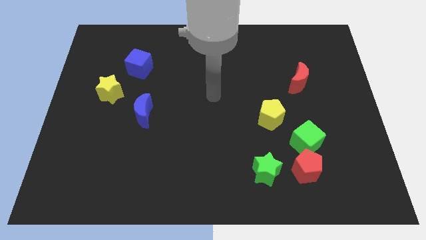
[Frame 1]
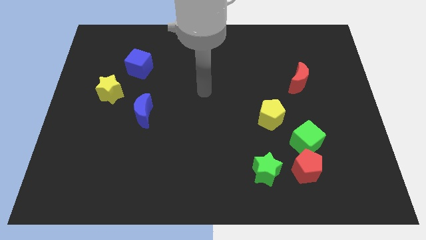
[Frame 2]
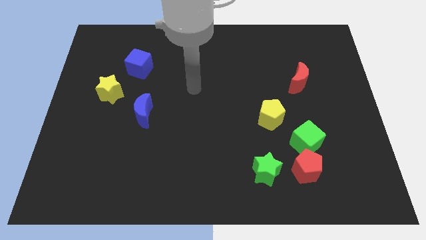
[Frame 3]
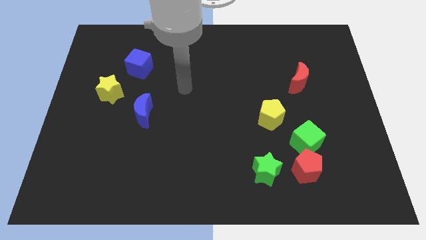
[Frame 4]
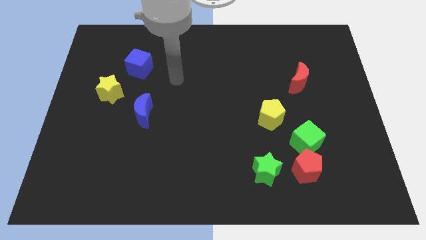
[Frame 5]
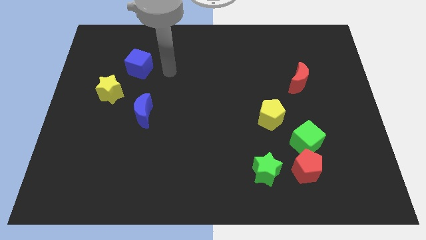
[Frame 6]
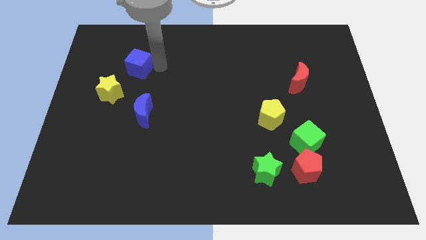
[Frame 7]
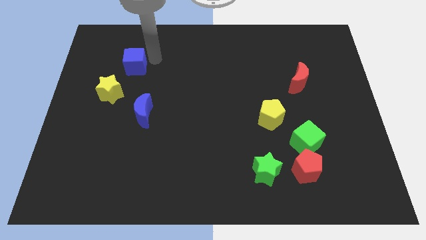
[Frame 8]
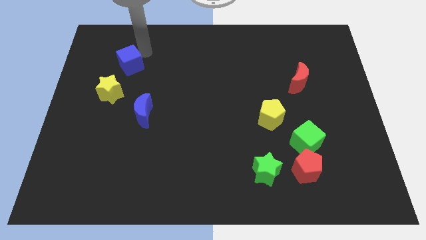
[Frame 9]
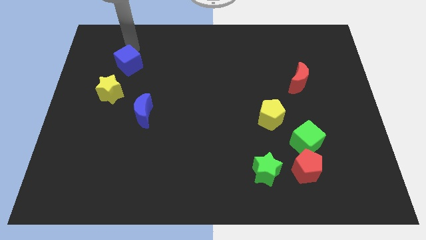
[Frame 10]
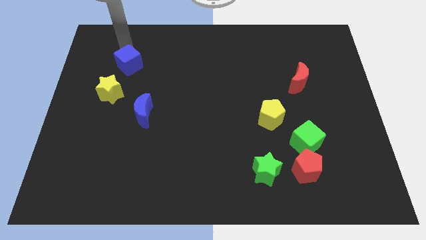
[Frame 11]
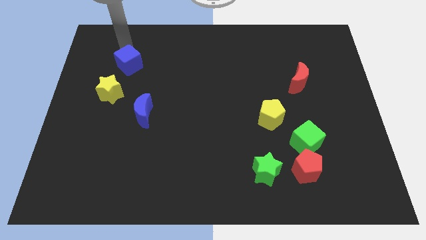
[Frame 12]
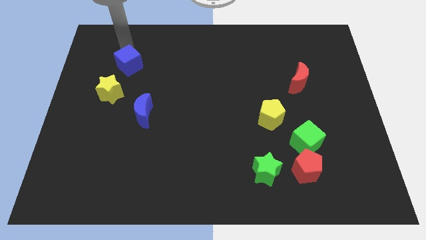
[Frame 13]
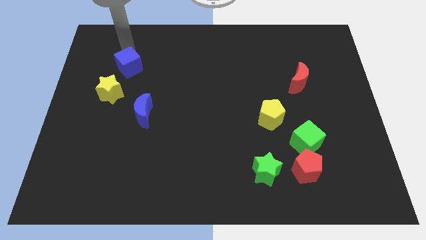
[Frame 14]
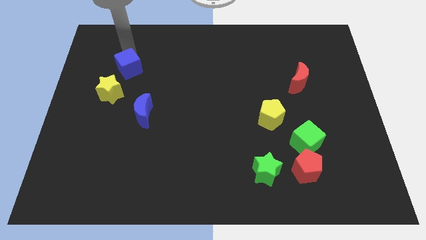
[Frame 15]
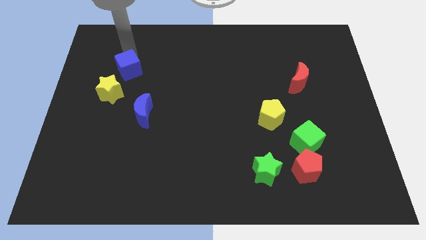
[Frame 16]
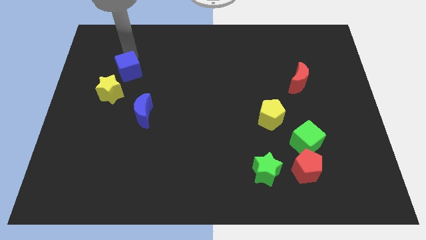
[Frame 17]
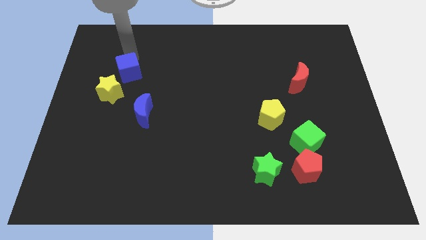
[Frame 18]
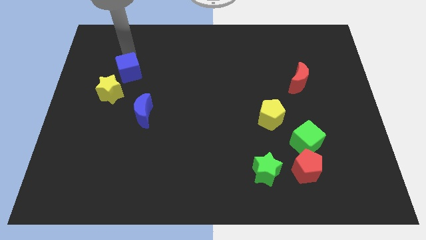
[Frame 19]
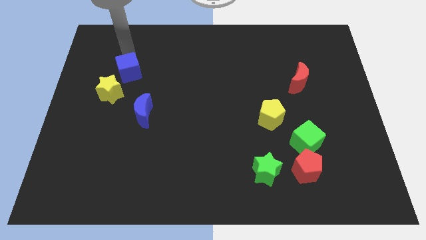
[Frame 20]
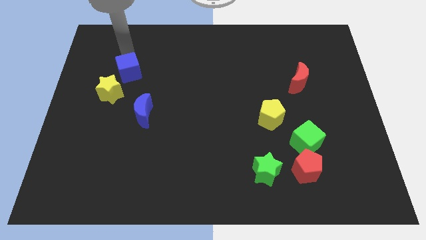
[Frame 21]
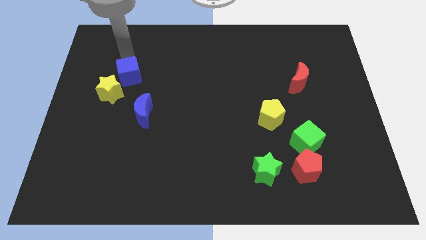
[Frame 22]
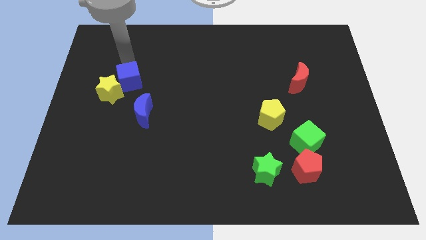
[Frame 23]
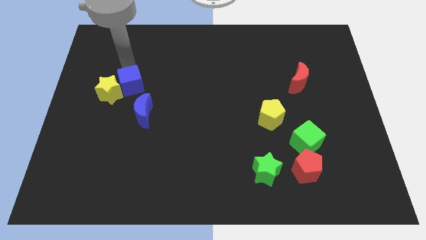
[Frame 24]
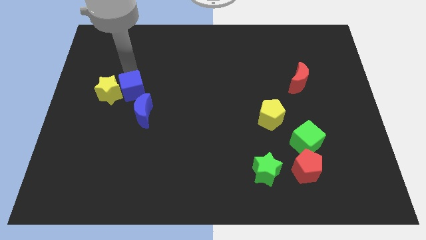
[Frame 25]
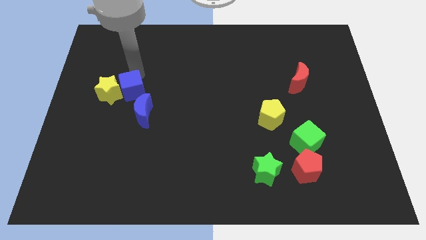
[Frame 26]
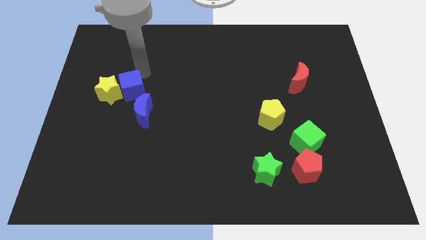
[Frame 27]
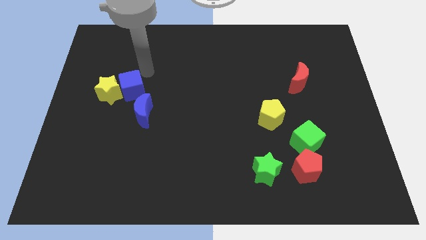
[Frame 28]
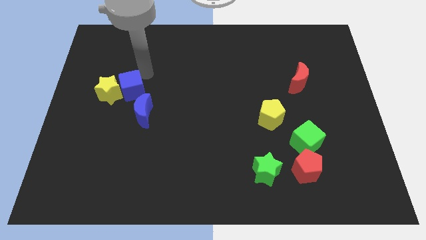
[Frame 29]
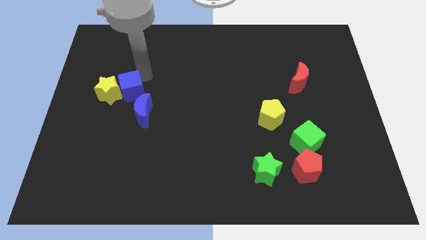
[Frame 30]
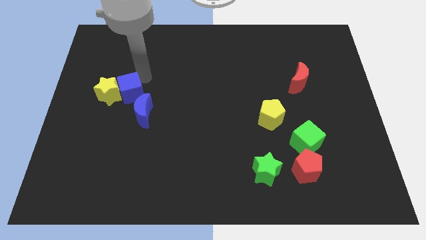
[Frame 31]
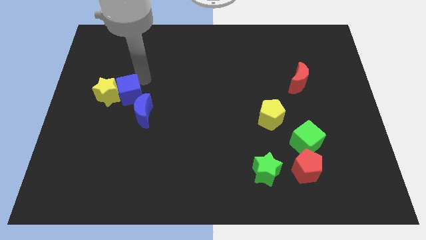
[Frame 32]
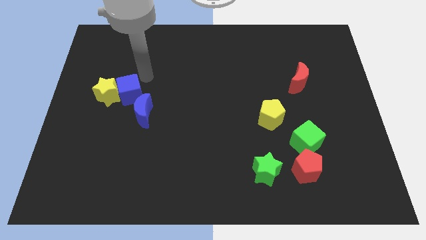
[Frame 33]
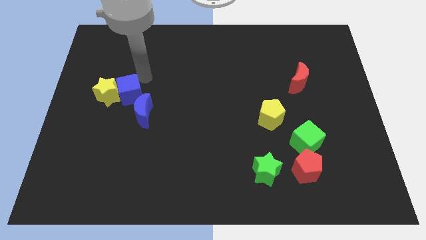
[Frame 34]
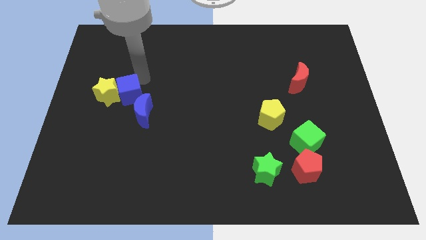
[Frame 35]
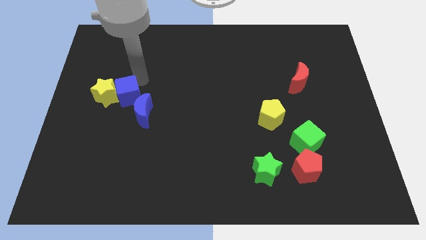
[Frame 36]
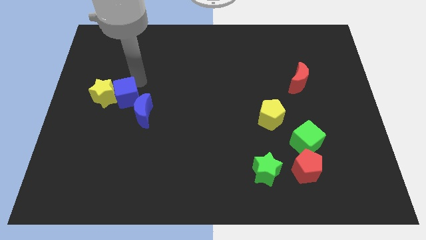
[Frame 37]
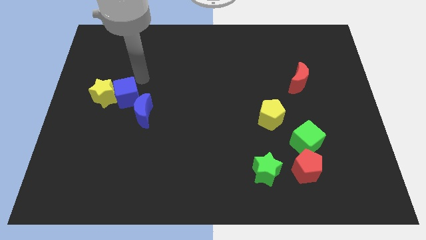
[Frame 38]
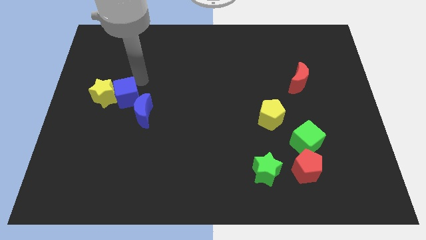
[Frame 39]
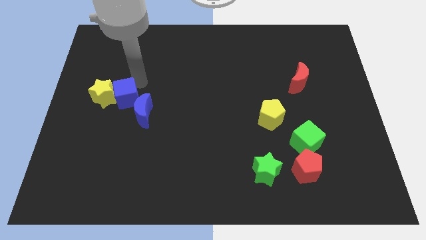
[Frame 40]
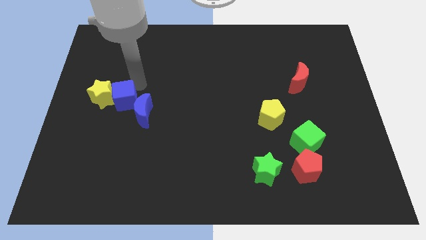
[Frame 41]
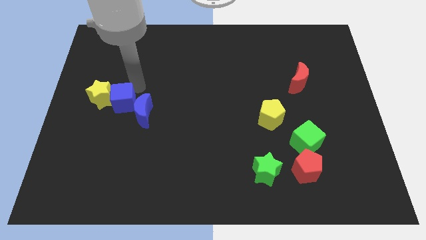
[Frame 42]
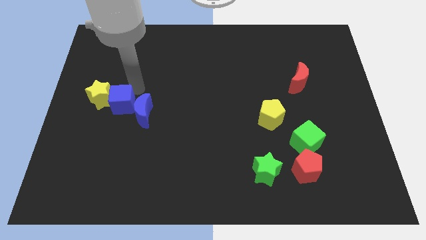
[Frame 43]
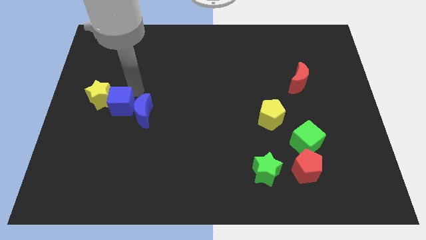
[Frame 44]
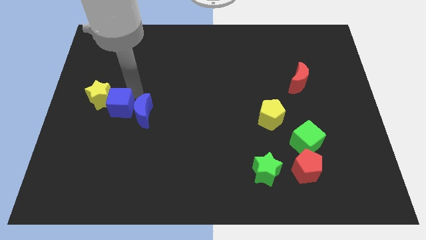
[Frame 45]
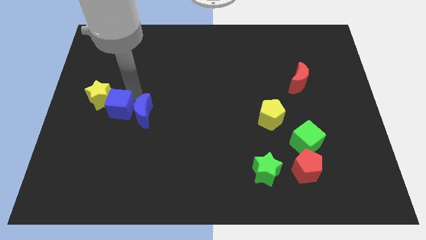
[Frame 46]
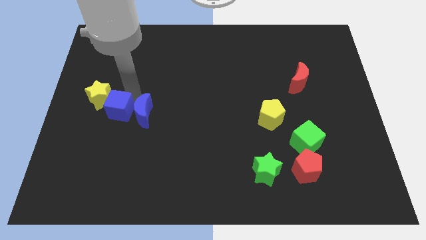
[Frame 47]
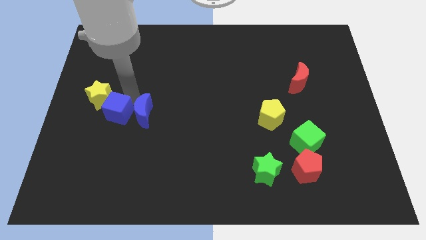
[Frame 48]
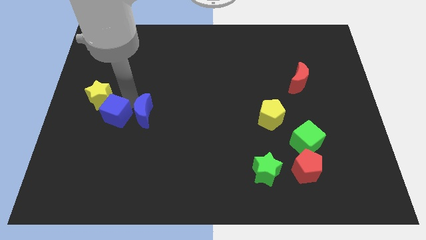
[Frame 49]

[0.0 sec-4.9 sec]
push the blue cube to the bottom of the yellow star

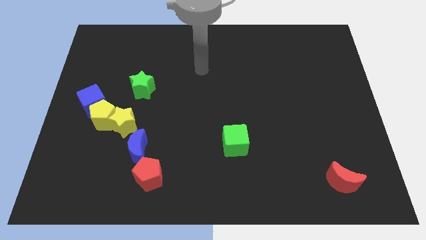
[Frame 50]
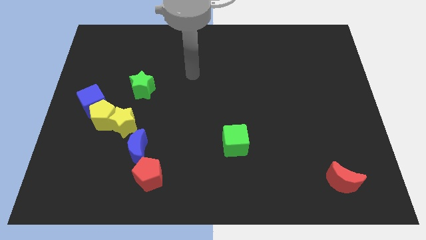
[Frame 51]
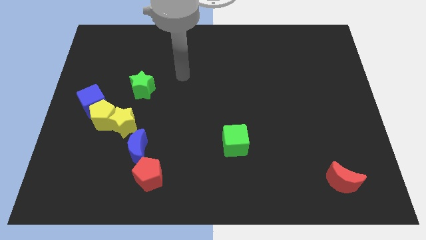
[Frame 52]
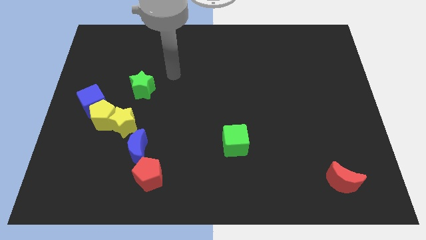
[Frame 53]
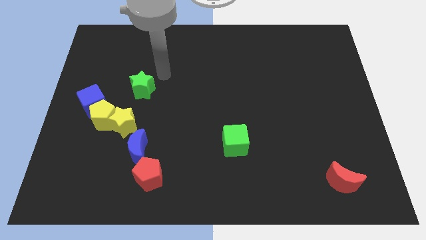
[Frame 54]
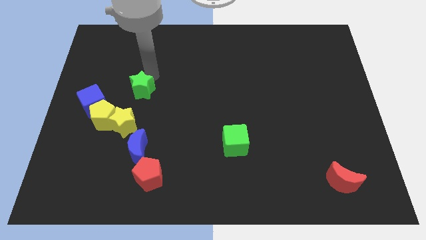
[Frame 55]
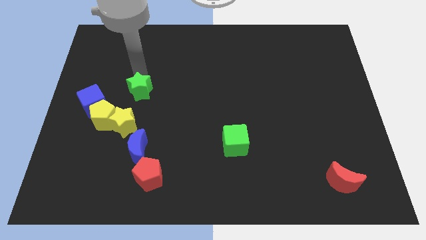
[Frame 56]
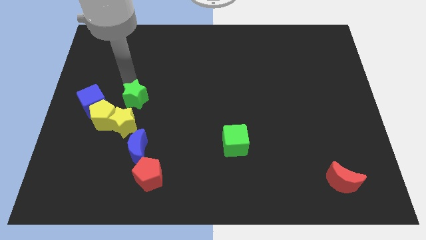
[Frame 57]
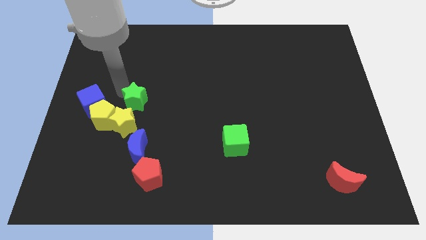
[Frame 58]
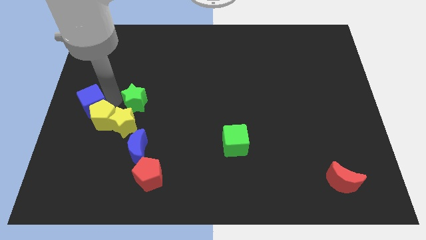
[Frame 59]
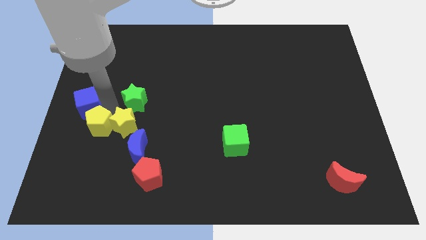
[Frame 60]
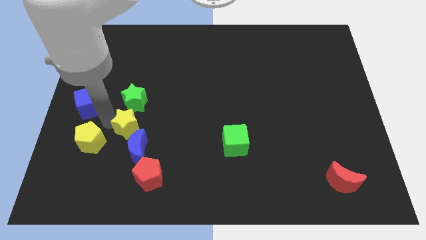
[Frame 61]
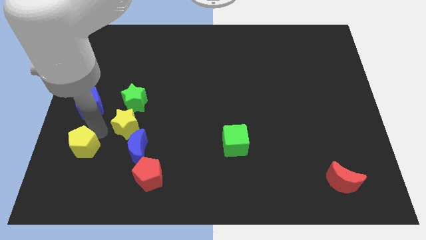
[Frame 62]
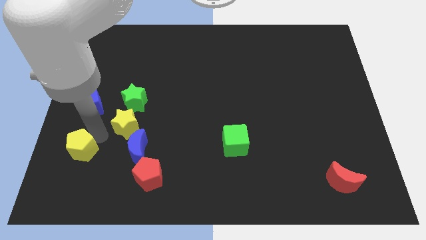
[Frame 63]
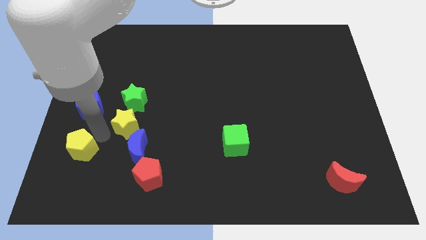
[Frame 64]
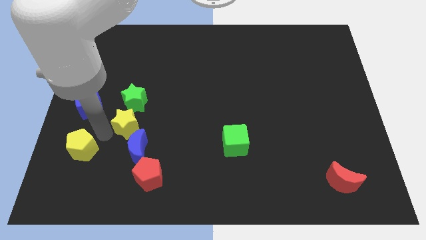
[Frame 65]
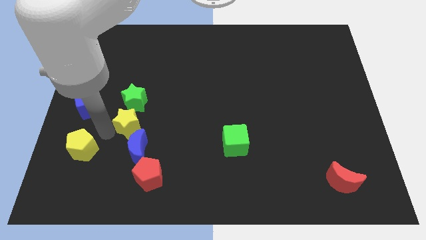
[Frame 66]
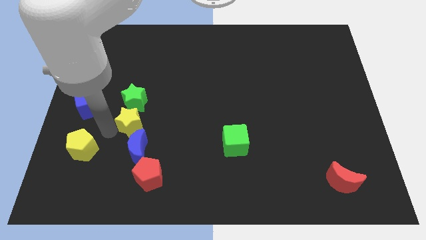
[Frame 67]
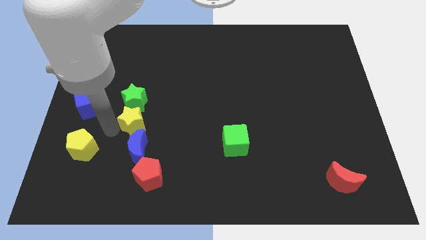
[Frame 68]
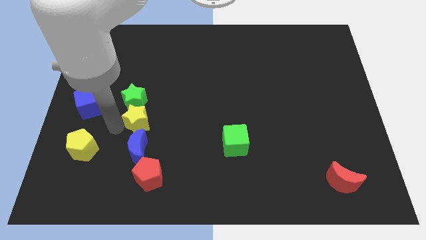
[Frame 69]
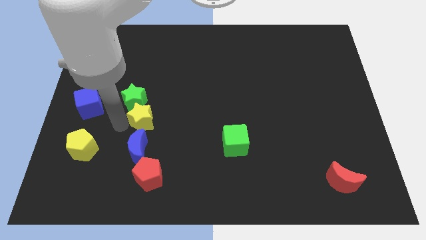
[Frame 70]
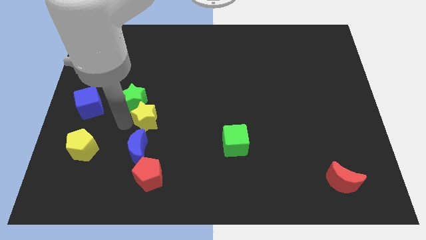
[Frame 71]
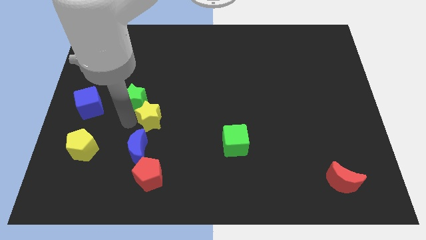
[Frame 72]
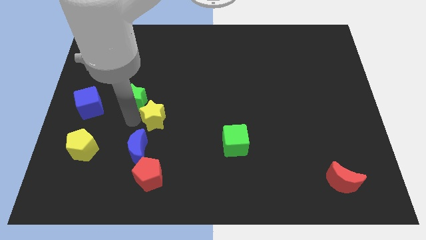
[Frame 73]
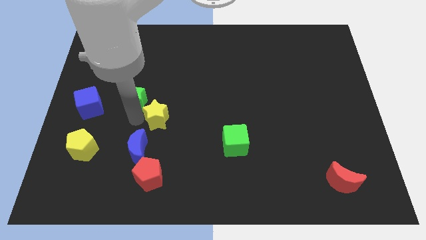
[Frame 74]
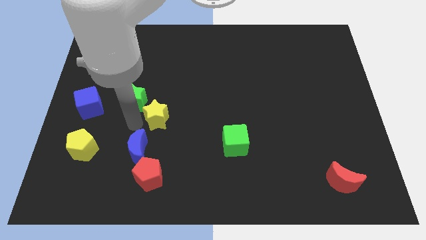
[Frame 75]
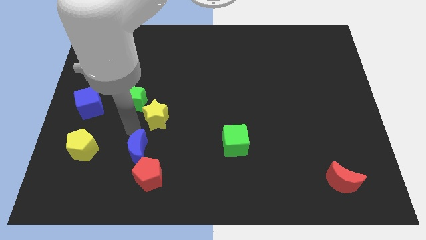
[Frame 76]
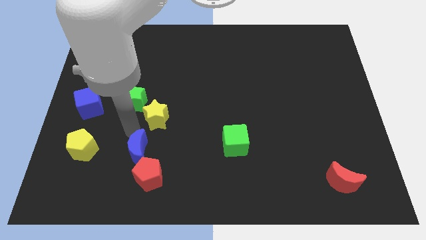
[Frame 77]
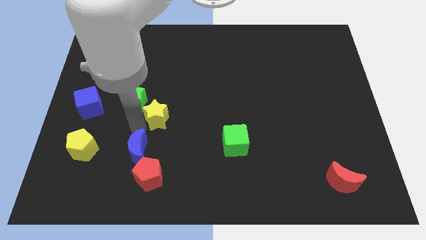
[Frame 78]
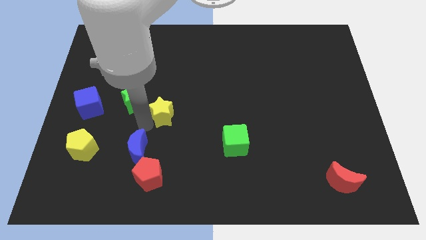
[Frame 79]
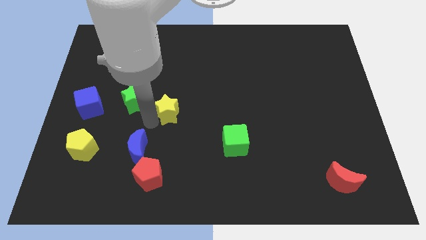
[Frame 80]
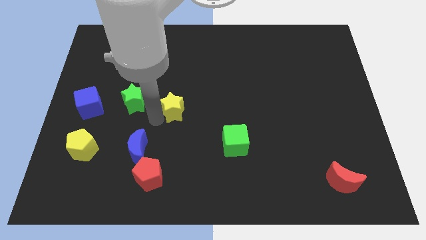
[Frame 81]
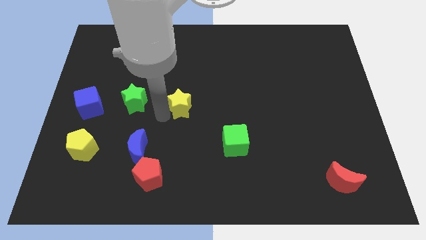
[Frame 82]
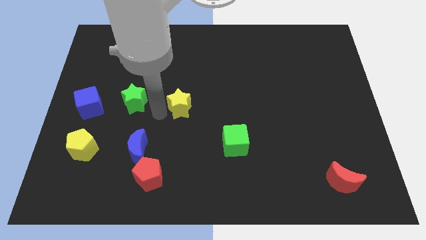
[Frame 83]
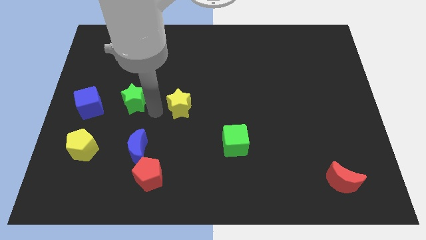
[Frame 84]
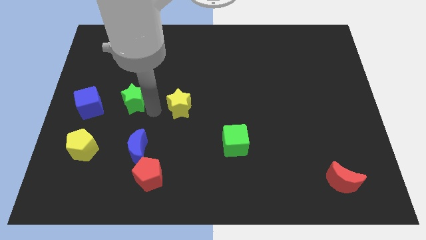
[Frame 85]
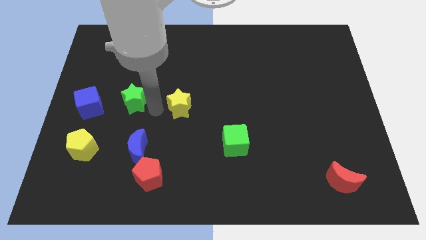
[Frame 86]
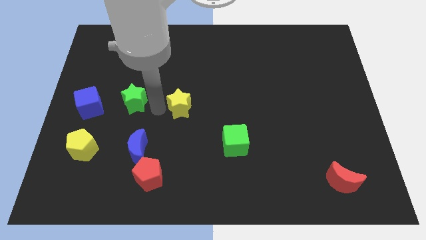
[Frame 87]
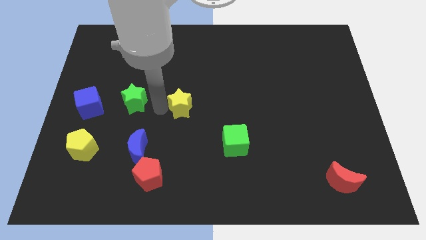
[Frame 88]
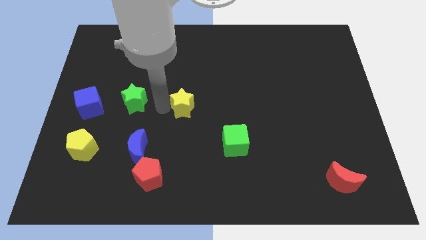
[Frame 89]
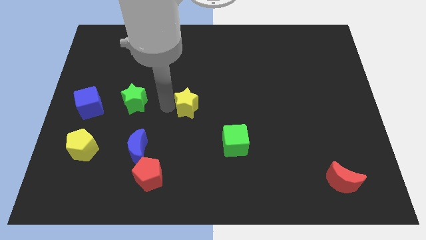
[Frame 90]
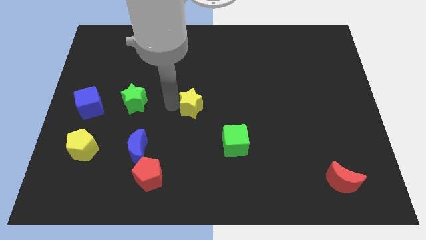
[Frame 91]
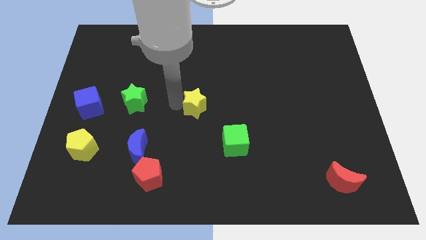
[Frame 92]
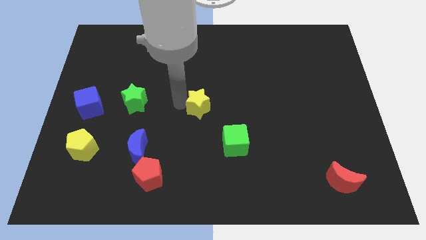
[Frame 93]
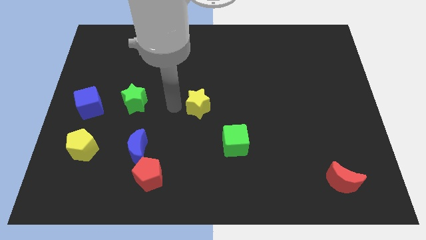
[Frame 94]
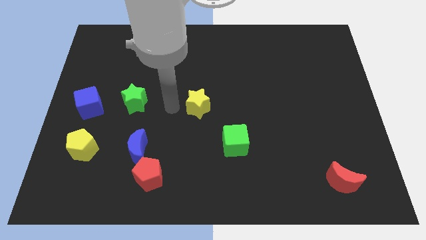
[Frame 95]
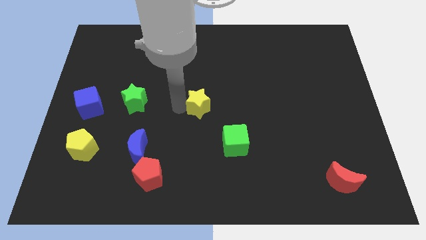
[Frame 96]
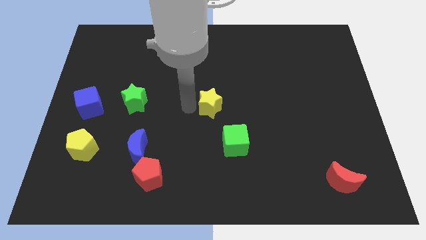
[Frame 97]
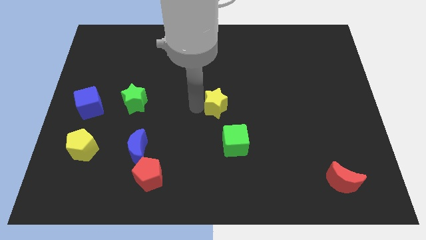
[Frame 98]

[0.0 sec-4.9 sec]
put the yellow star to the top of the green cube
